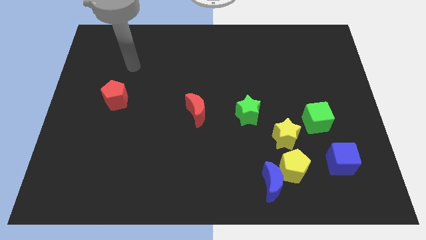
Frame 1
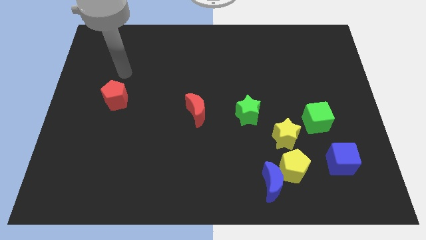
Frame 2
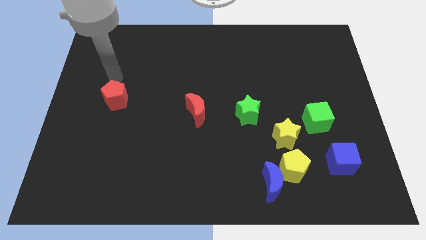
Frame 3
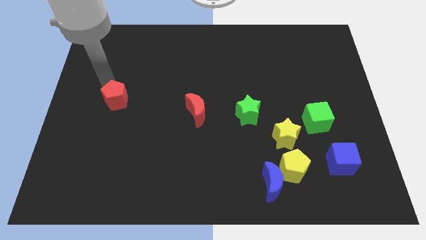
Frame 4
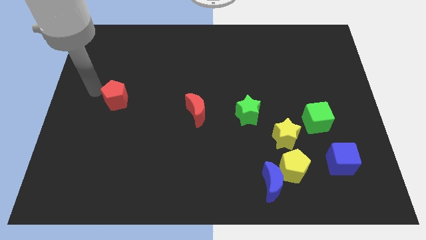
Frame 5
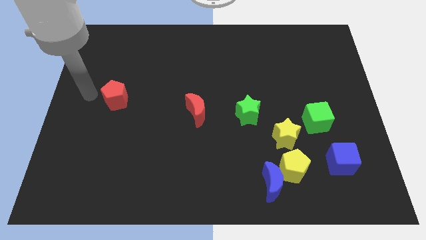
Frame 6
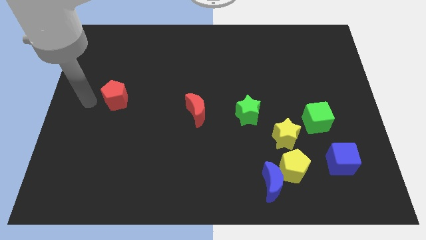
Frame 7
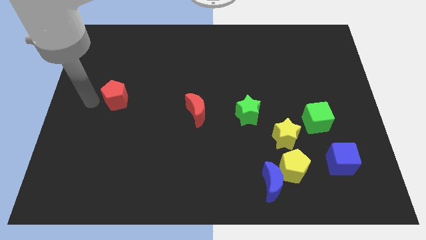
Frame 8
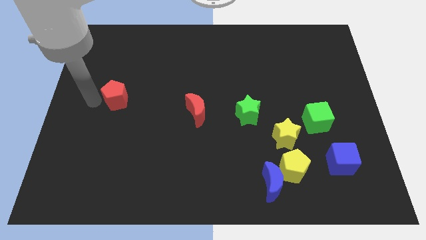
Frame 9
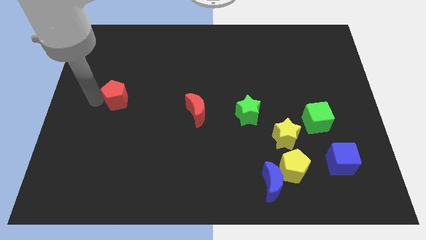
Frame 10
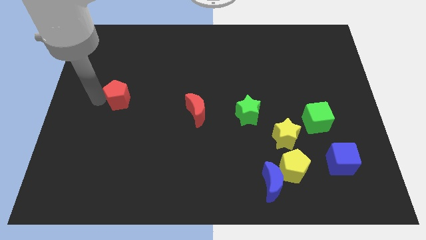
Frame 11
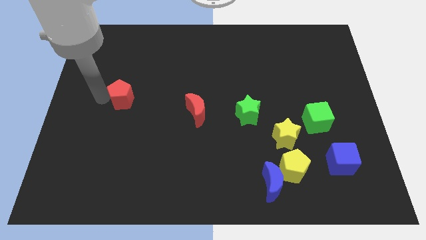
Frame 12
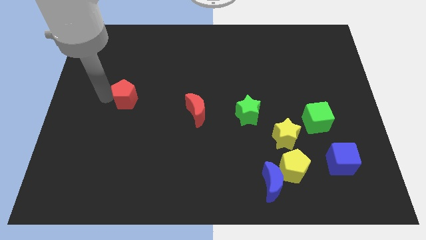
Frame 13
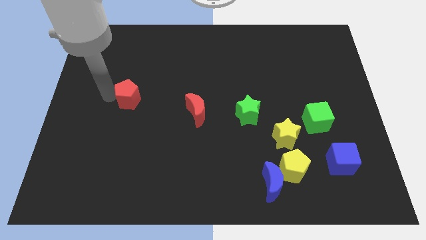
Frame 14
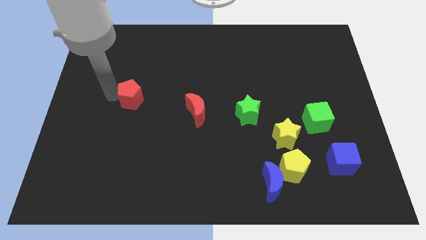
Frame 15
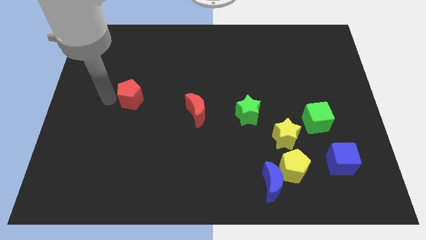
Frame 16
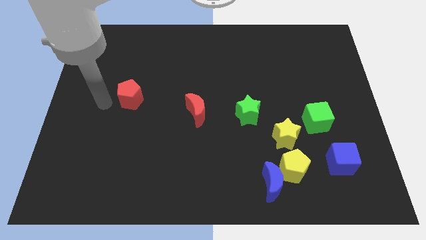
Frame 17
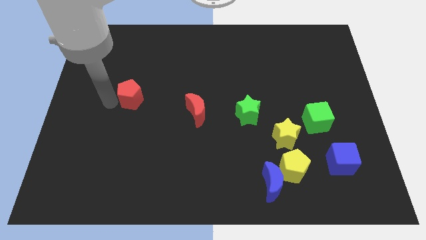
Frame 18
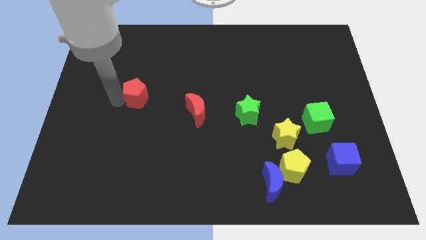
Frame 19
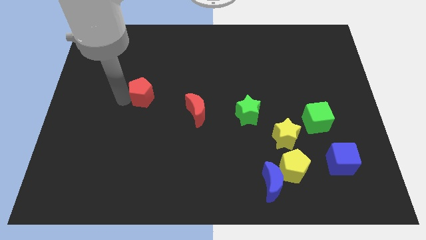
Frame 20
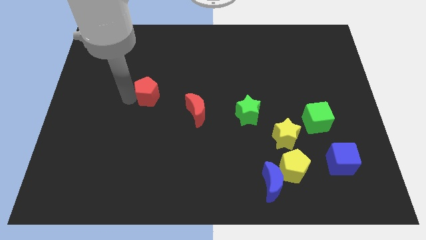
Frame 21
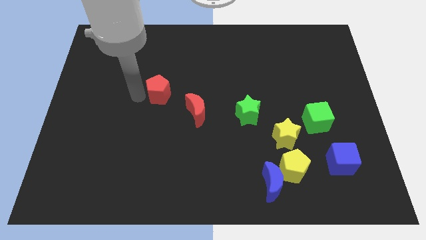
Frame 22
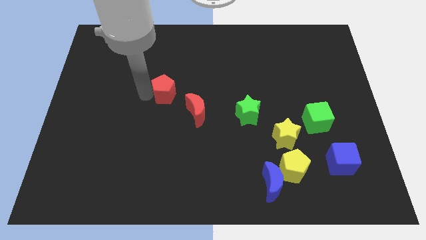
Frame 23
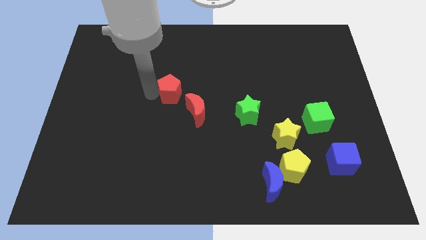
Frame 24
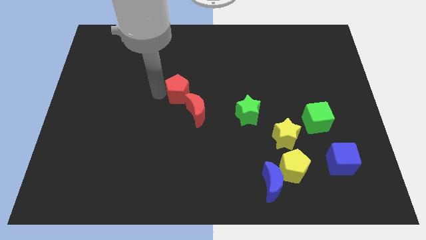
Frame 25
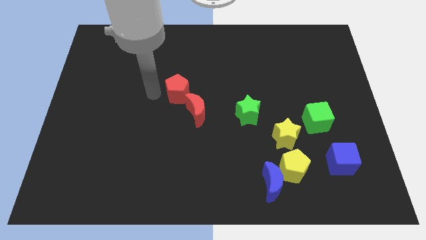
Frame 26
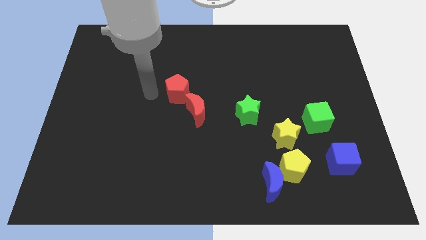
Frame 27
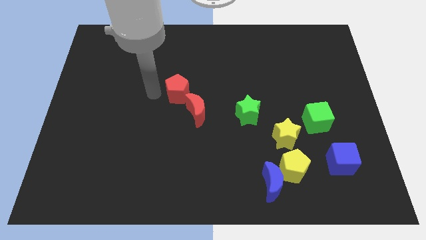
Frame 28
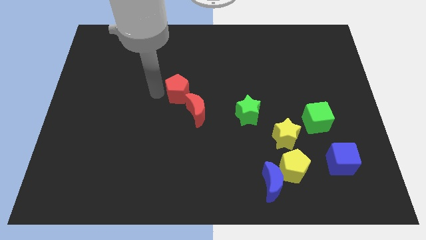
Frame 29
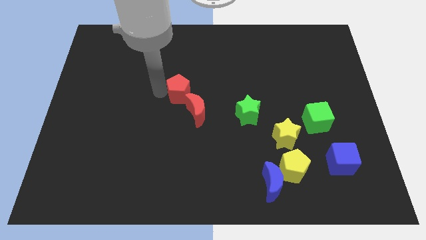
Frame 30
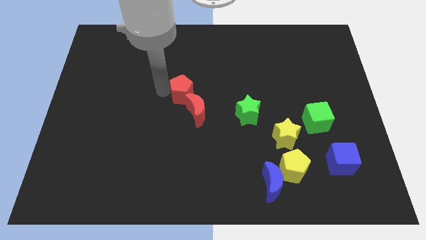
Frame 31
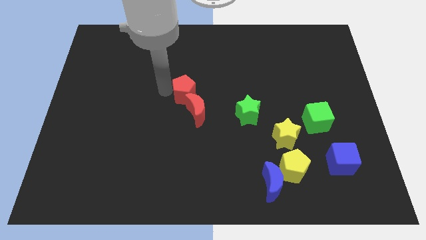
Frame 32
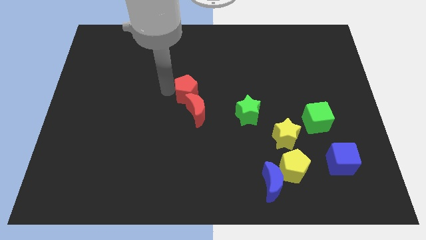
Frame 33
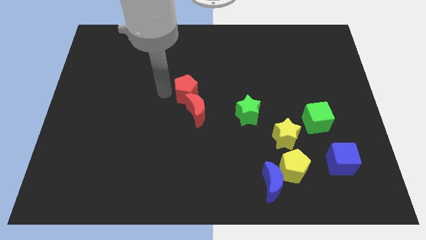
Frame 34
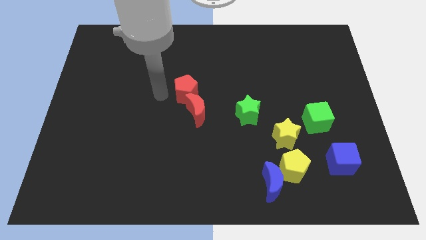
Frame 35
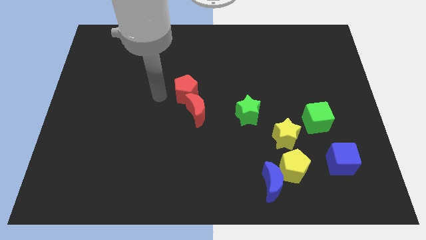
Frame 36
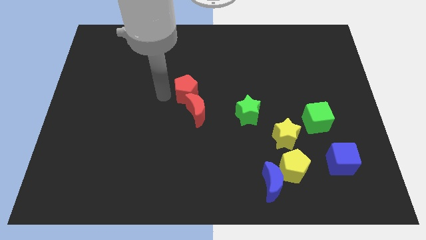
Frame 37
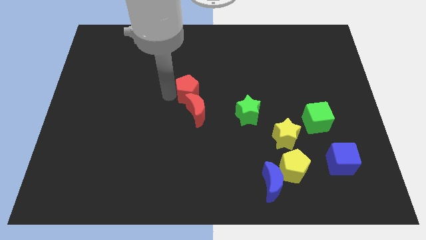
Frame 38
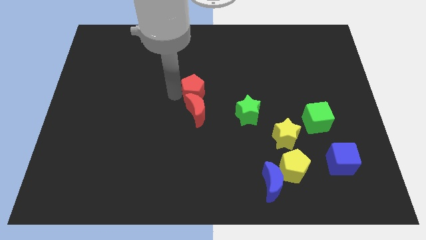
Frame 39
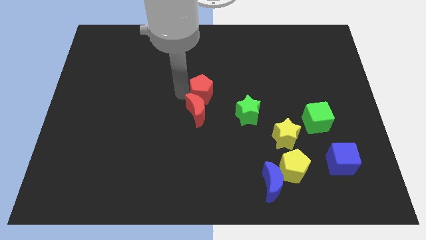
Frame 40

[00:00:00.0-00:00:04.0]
slide the red pentagon to the right

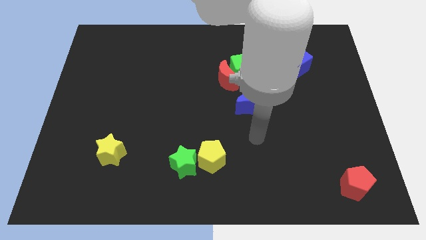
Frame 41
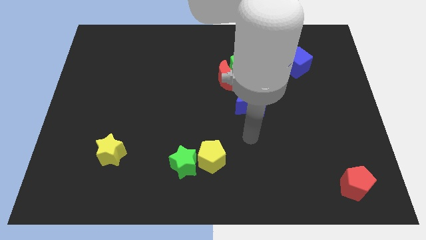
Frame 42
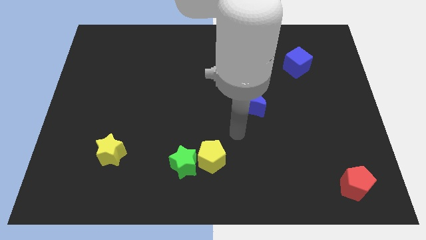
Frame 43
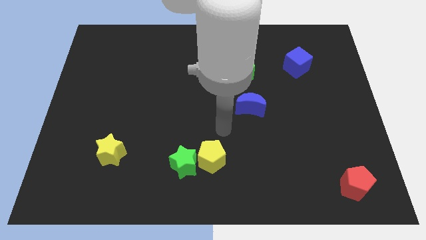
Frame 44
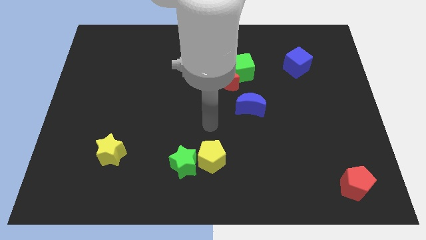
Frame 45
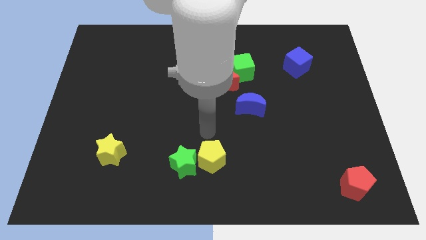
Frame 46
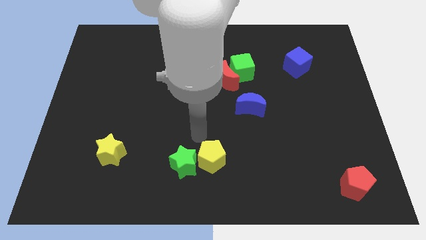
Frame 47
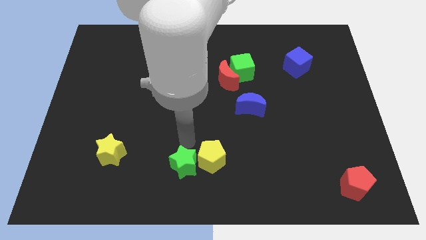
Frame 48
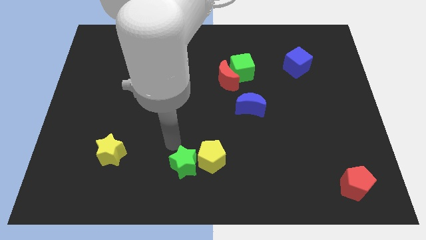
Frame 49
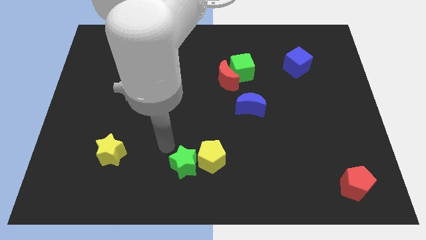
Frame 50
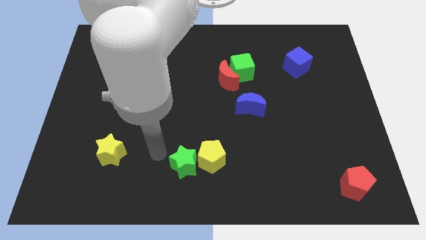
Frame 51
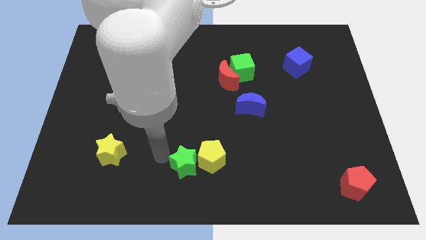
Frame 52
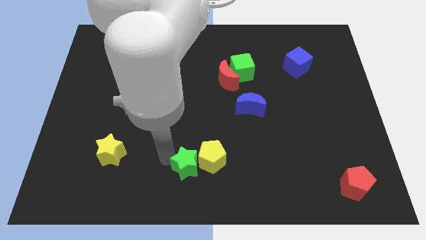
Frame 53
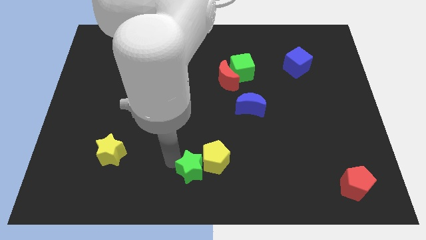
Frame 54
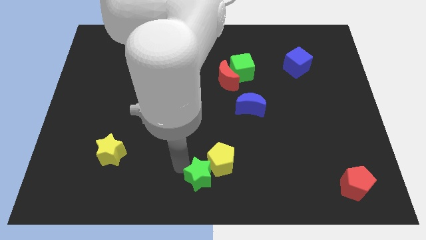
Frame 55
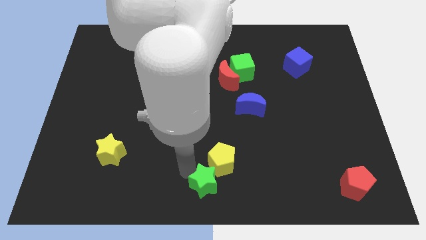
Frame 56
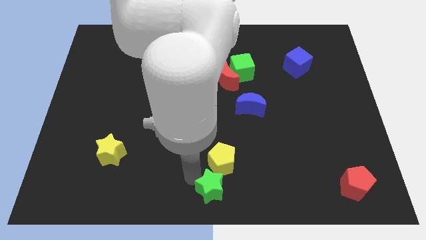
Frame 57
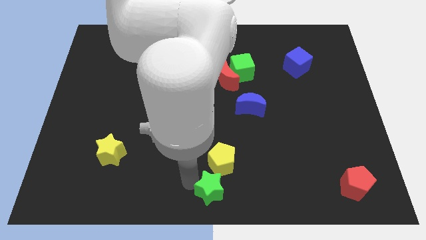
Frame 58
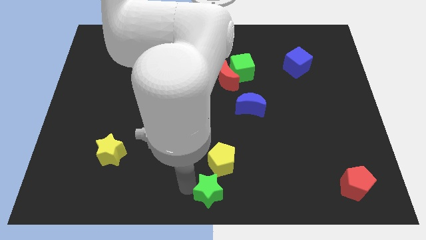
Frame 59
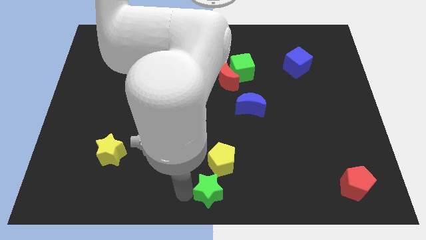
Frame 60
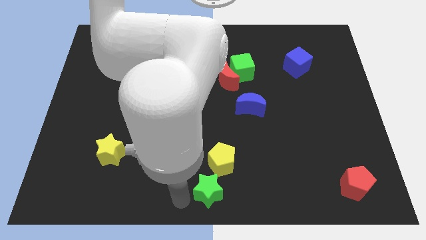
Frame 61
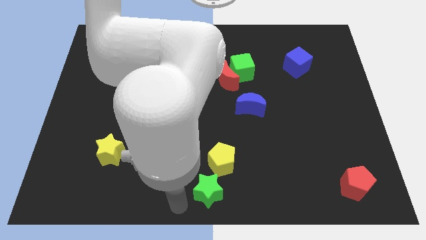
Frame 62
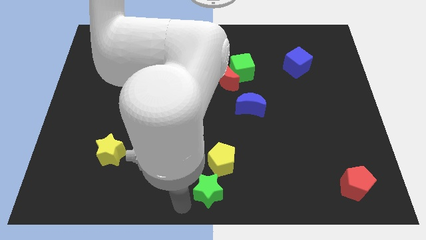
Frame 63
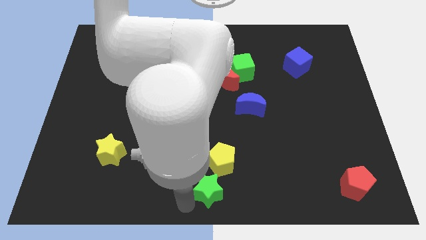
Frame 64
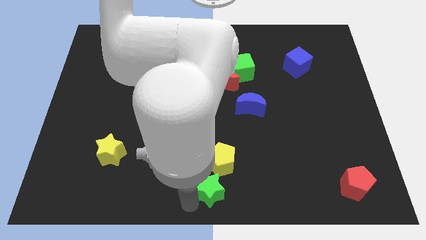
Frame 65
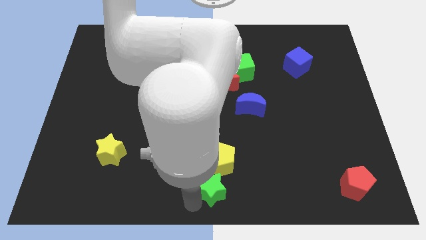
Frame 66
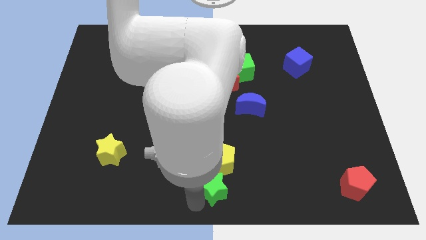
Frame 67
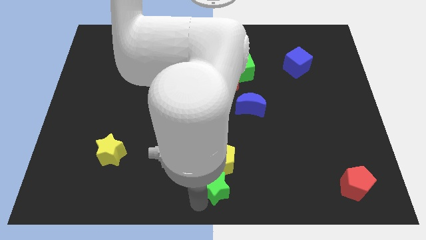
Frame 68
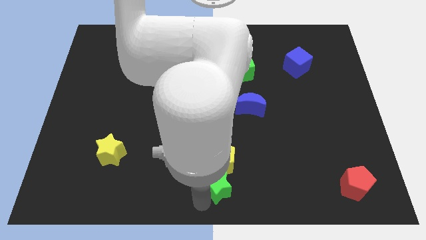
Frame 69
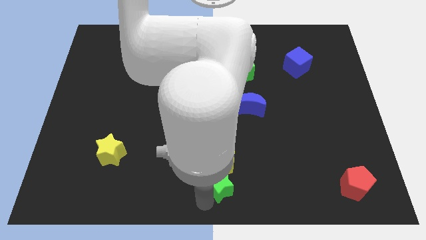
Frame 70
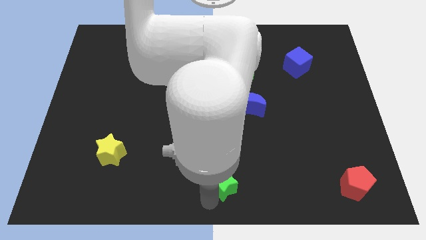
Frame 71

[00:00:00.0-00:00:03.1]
slightly push the green star right

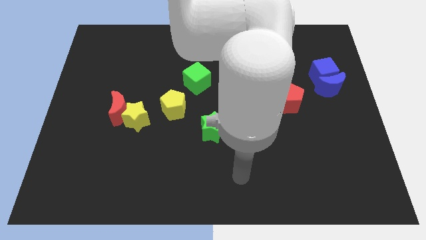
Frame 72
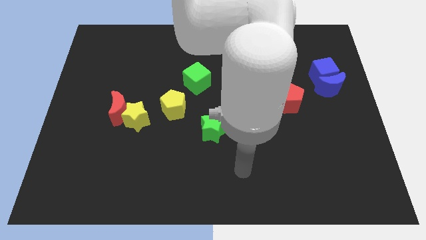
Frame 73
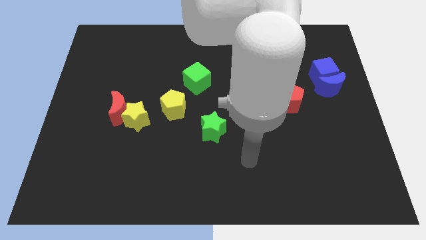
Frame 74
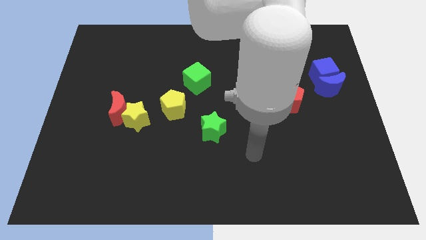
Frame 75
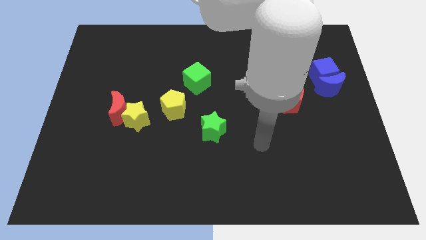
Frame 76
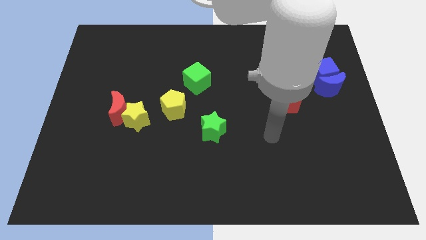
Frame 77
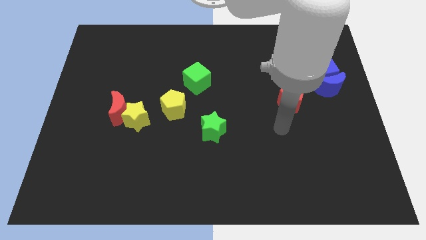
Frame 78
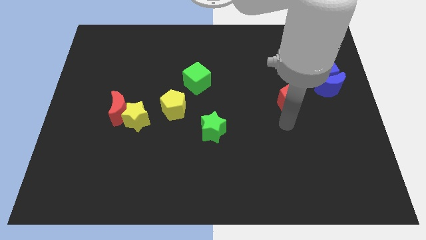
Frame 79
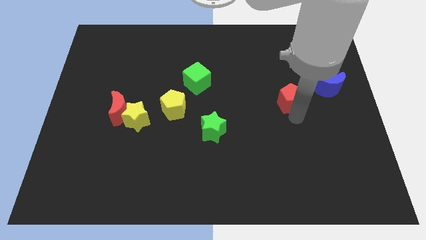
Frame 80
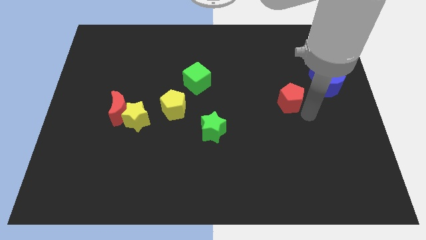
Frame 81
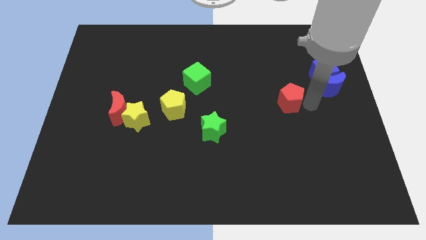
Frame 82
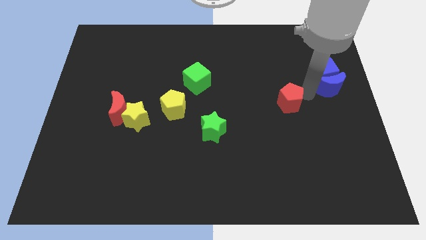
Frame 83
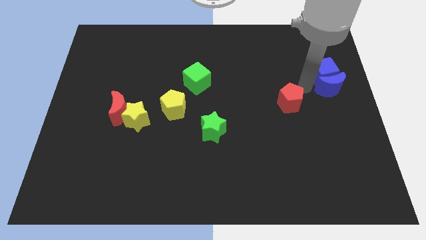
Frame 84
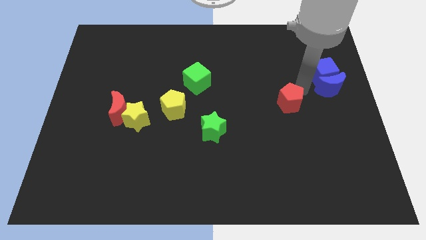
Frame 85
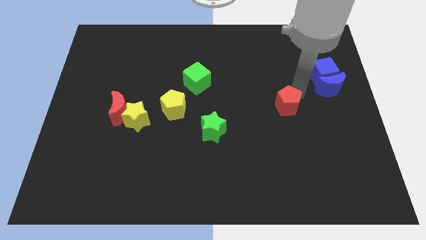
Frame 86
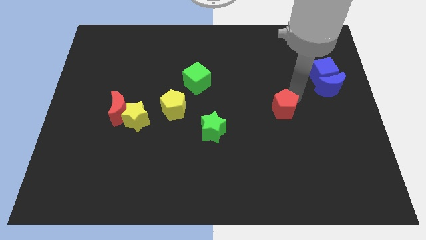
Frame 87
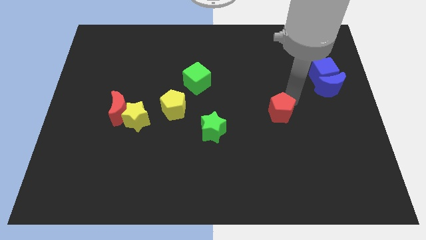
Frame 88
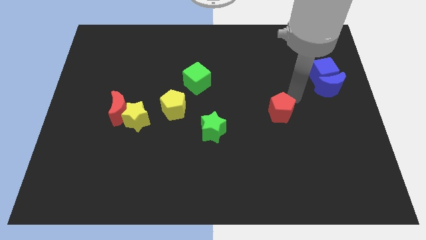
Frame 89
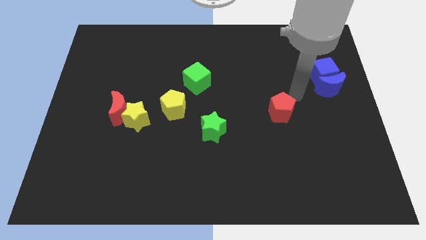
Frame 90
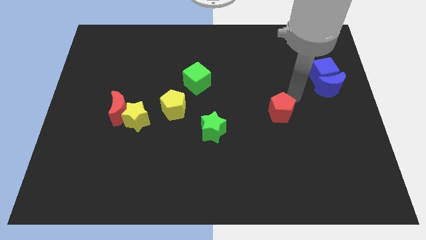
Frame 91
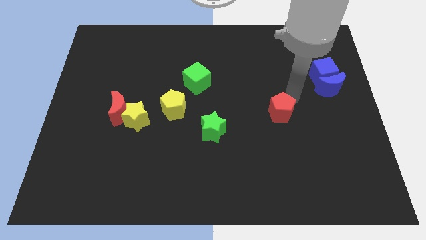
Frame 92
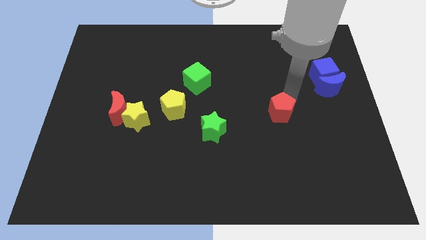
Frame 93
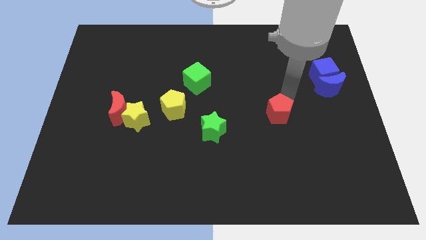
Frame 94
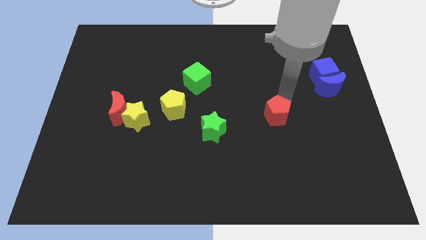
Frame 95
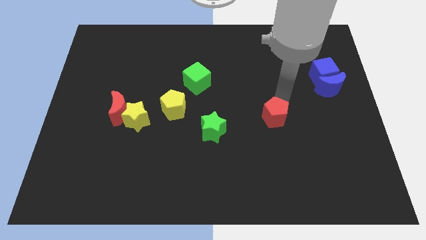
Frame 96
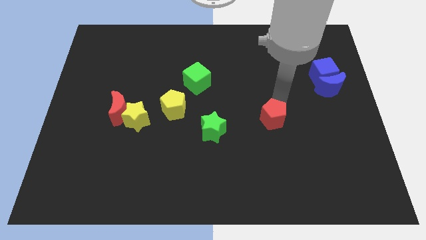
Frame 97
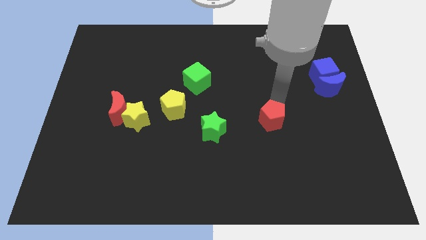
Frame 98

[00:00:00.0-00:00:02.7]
slightly push the red pentagon down and then left
